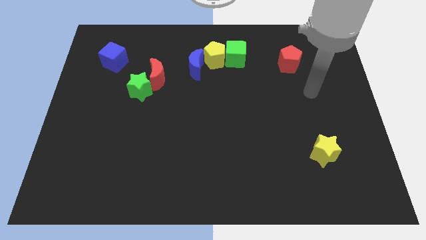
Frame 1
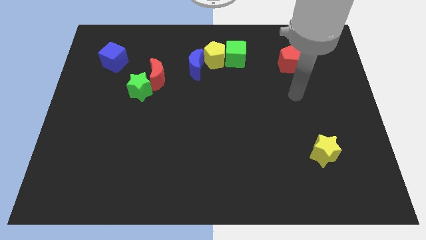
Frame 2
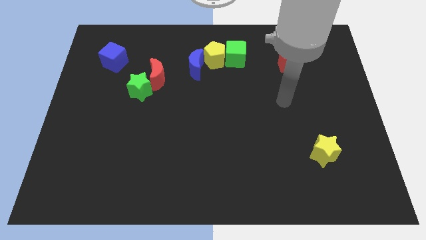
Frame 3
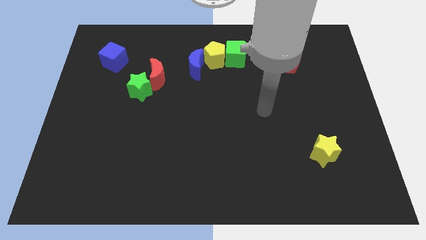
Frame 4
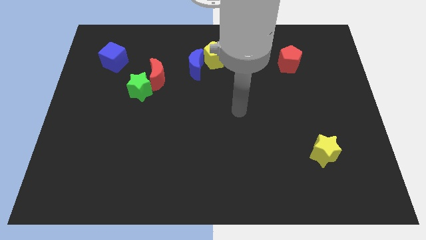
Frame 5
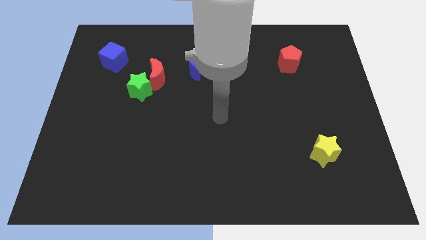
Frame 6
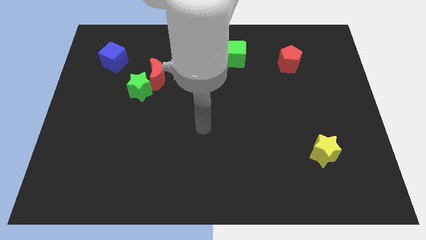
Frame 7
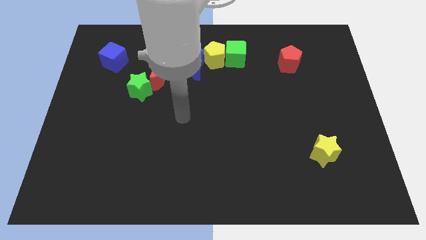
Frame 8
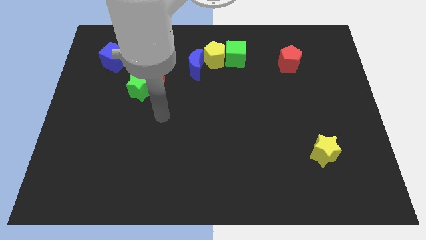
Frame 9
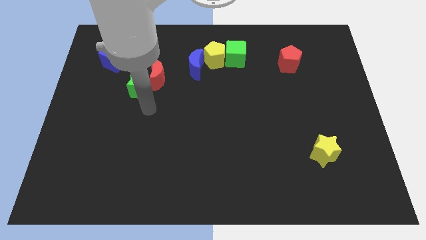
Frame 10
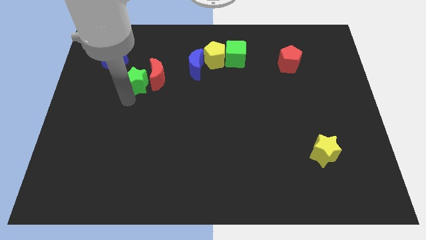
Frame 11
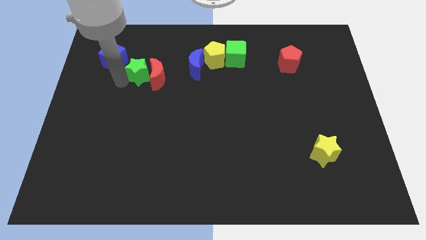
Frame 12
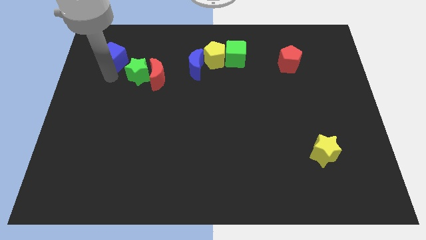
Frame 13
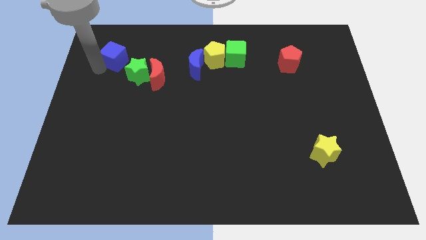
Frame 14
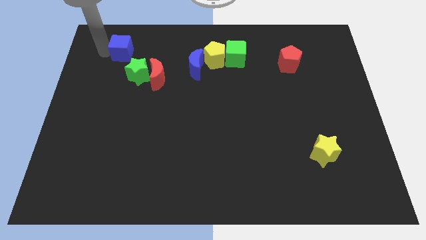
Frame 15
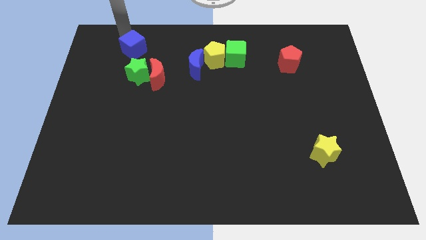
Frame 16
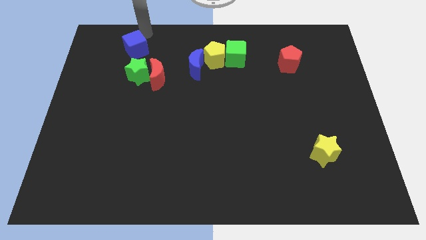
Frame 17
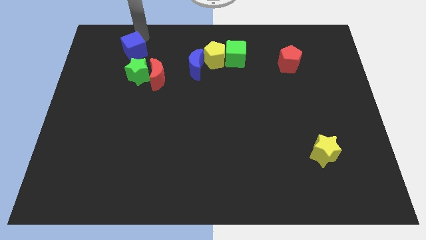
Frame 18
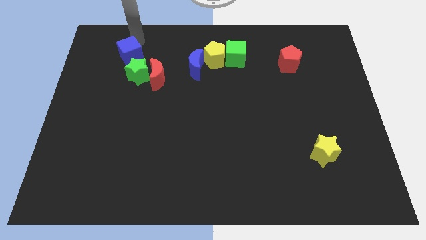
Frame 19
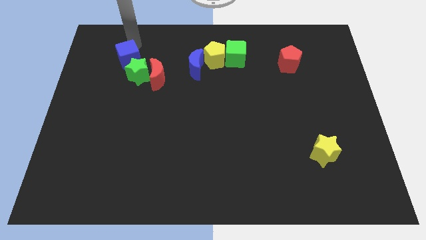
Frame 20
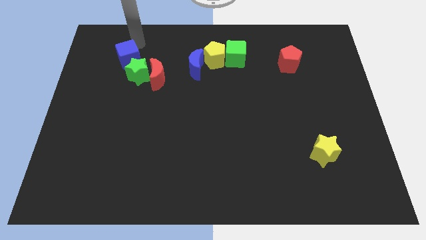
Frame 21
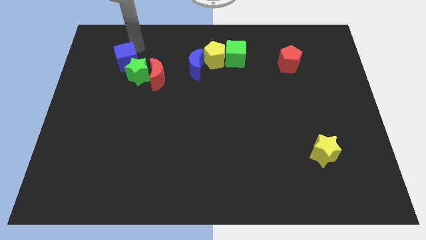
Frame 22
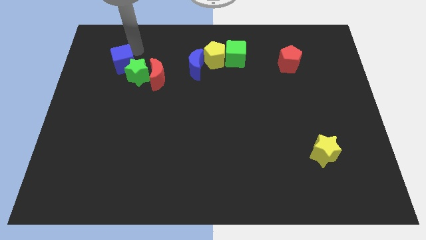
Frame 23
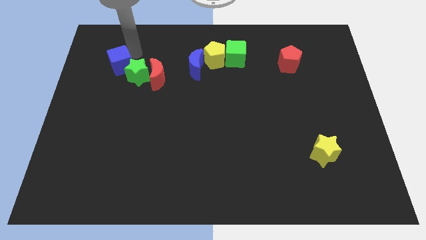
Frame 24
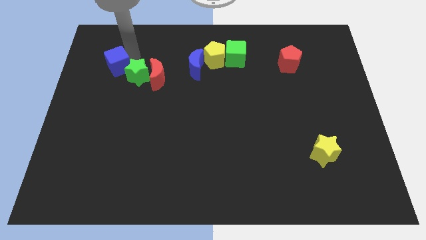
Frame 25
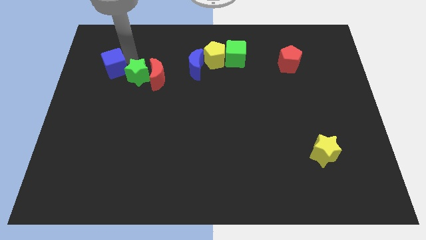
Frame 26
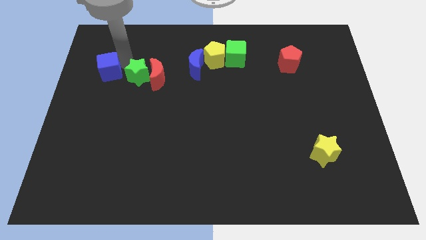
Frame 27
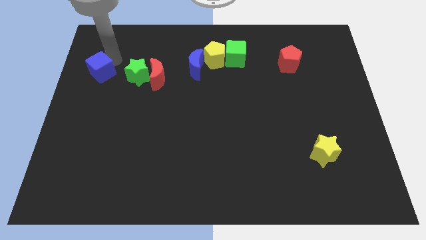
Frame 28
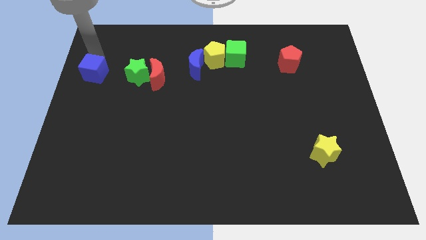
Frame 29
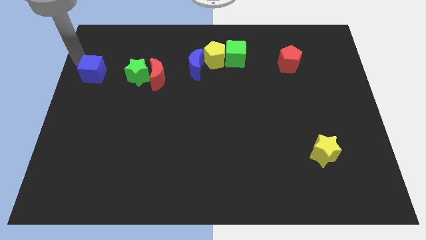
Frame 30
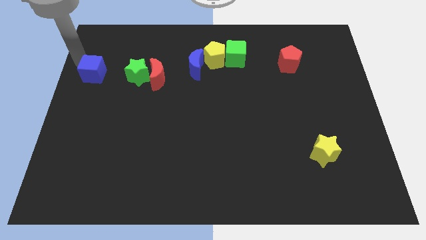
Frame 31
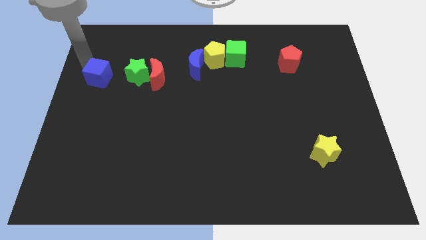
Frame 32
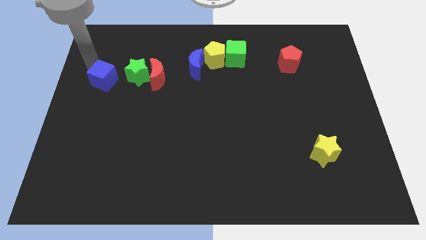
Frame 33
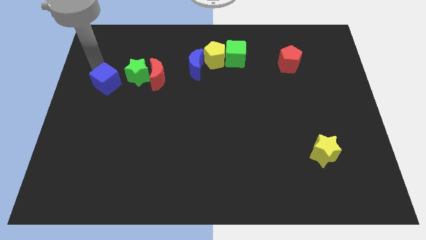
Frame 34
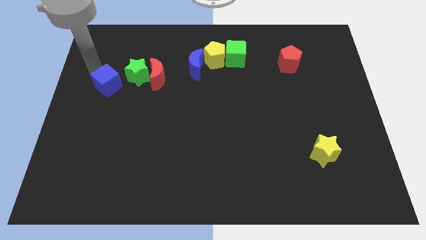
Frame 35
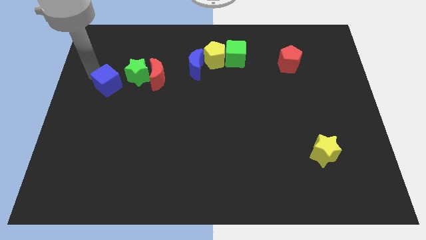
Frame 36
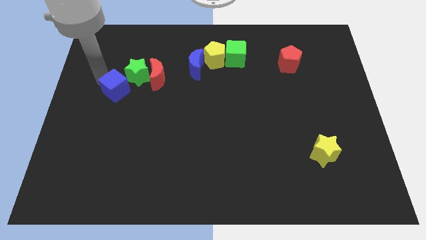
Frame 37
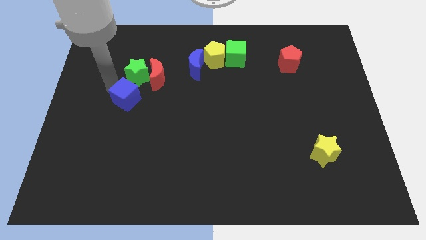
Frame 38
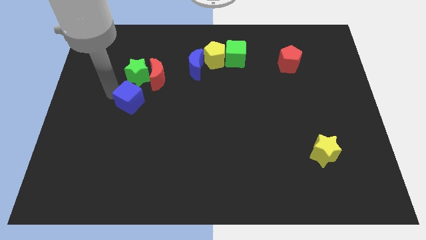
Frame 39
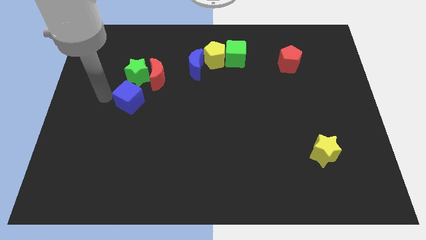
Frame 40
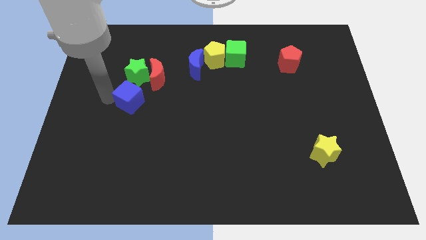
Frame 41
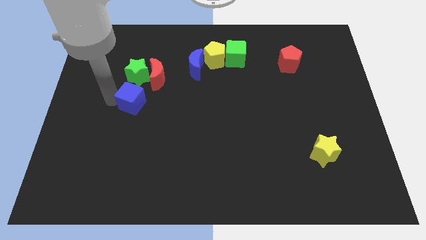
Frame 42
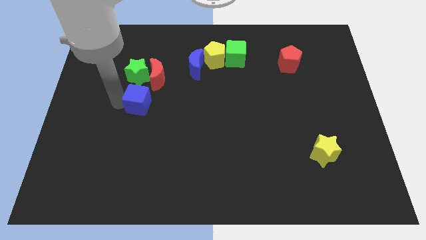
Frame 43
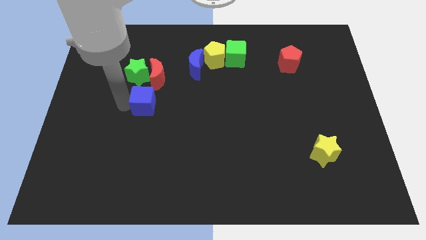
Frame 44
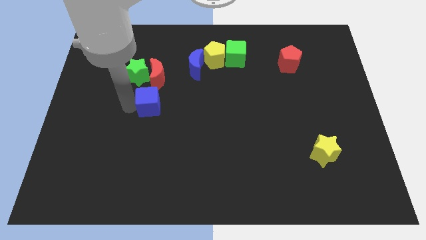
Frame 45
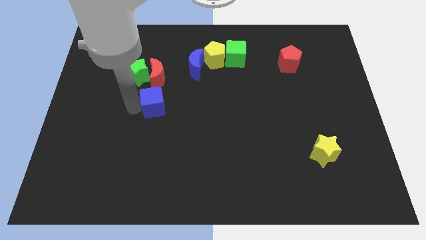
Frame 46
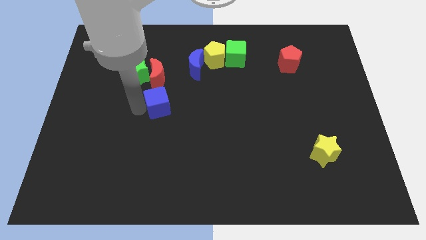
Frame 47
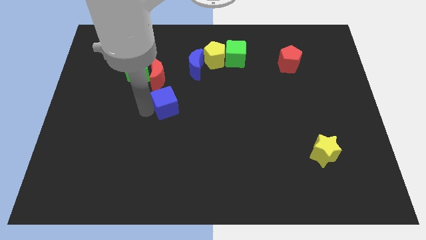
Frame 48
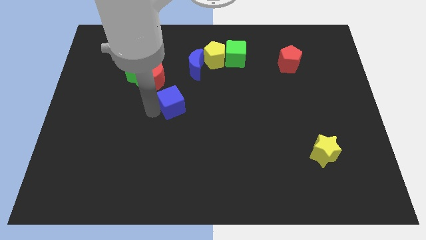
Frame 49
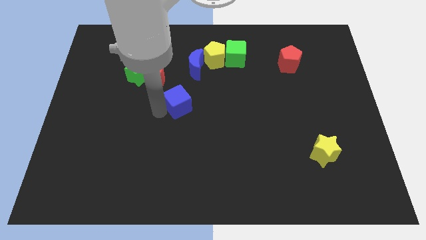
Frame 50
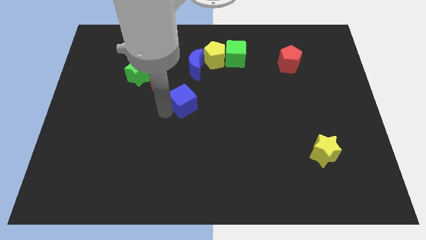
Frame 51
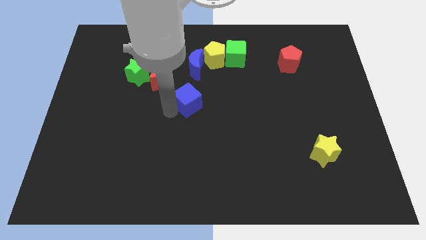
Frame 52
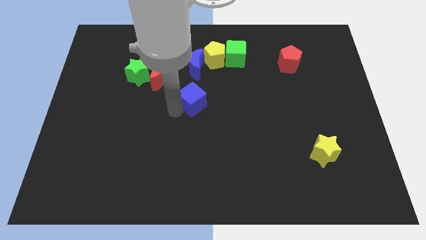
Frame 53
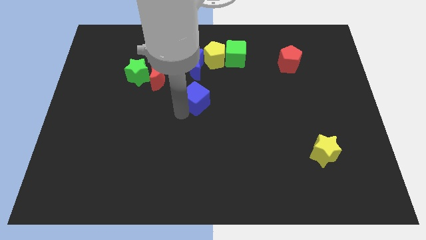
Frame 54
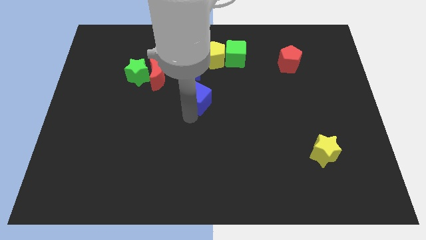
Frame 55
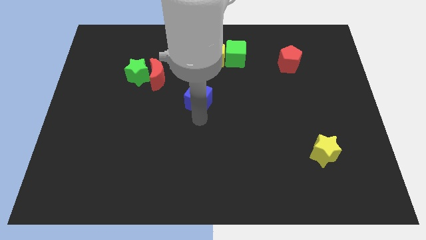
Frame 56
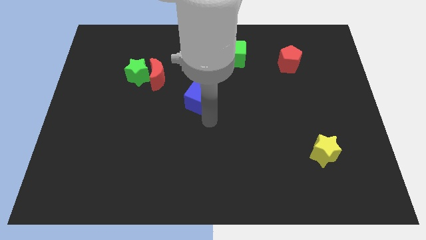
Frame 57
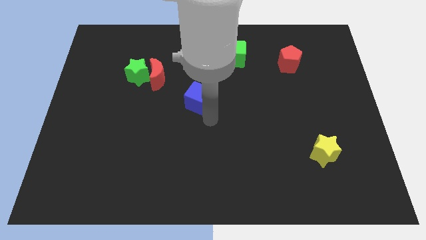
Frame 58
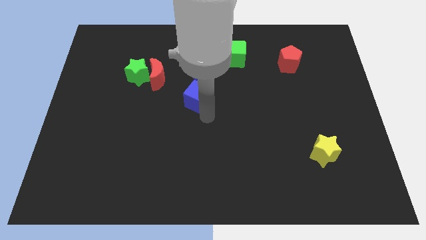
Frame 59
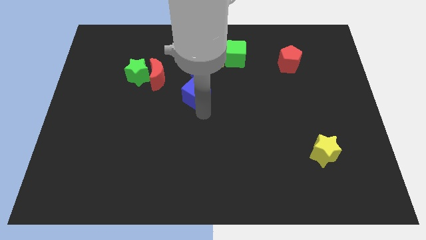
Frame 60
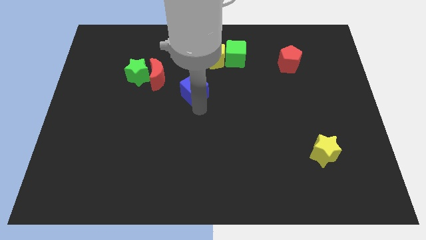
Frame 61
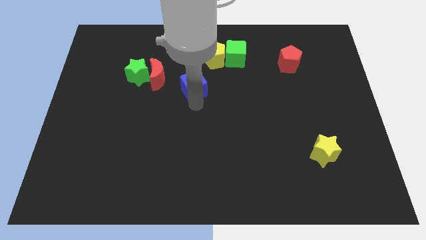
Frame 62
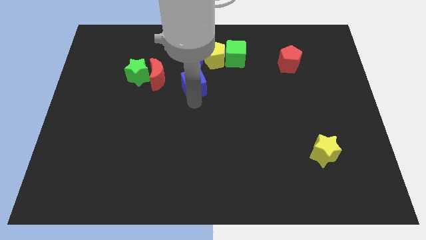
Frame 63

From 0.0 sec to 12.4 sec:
put the blue cube to the bottom right side of the blue moon
